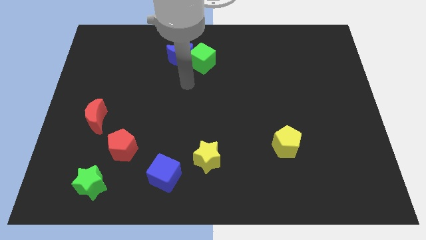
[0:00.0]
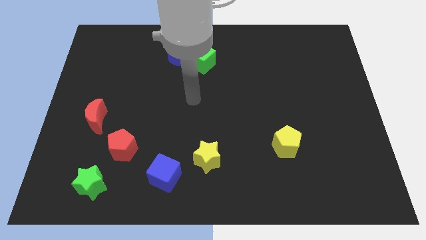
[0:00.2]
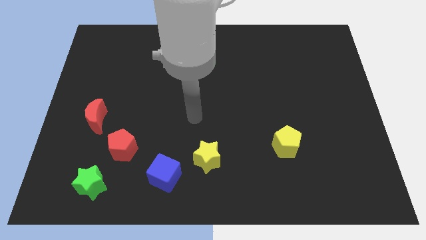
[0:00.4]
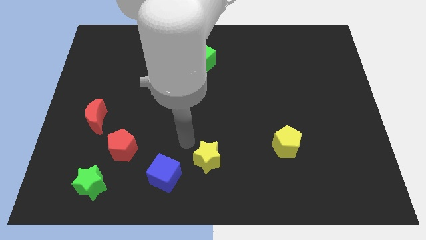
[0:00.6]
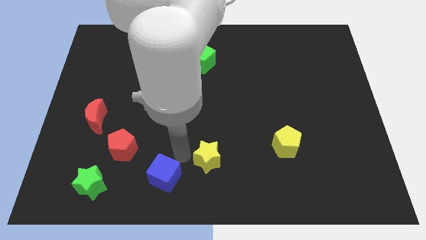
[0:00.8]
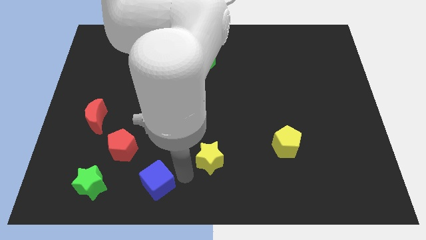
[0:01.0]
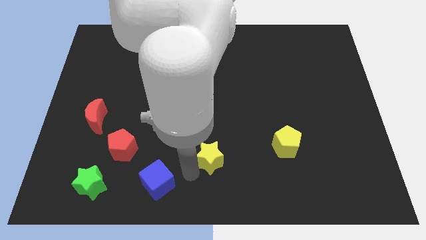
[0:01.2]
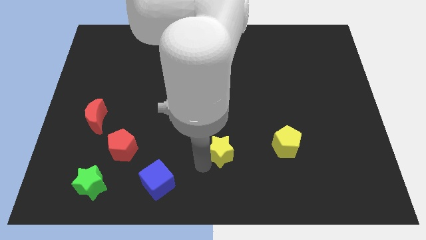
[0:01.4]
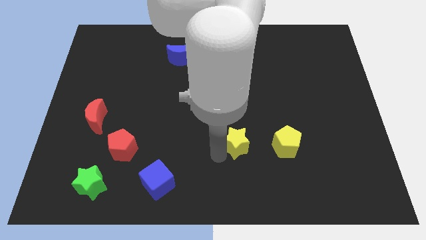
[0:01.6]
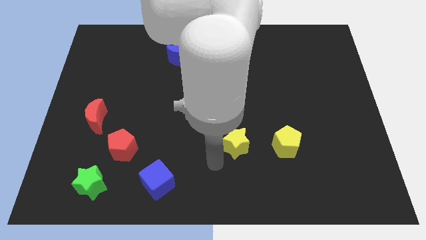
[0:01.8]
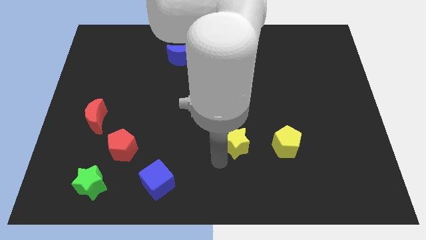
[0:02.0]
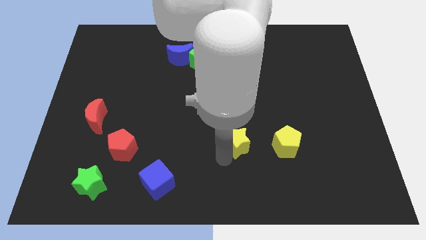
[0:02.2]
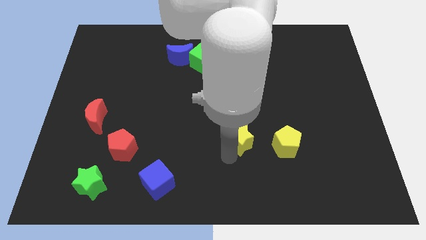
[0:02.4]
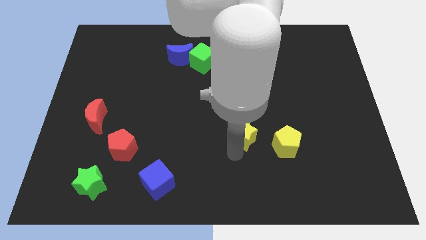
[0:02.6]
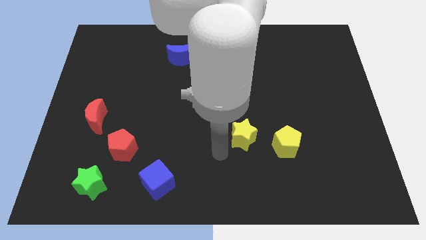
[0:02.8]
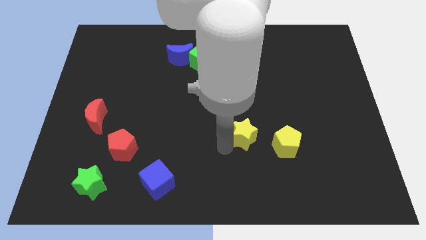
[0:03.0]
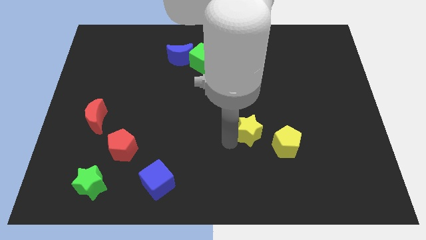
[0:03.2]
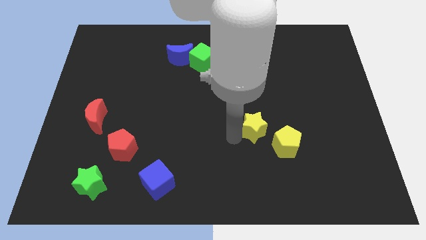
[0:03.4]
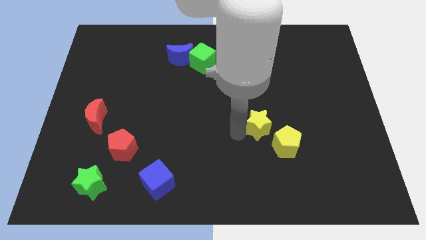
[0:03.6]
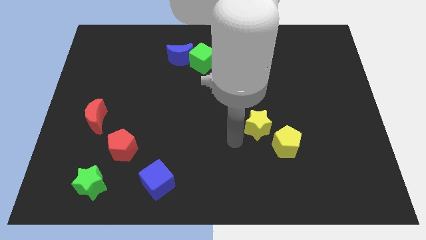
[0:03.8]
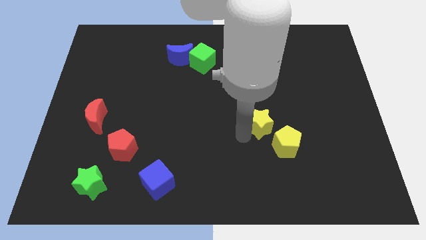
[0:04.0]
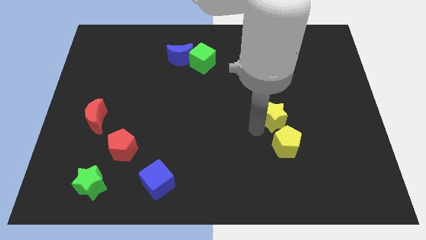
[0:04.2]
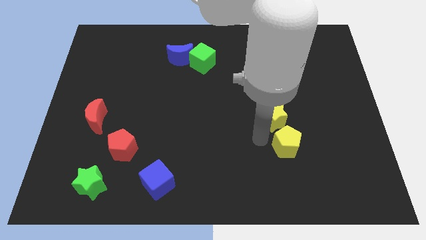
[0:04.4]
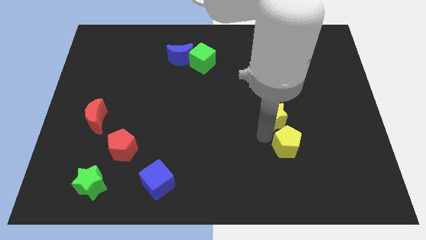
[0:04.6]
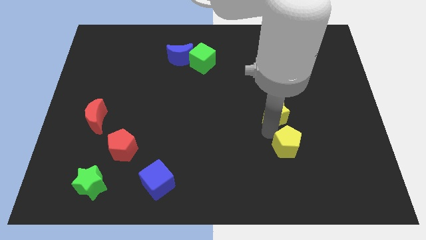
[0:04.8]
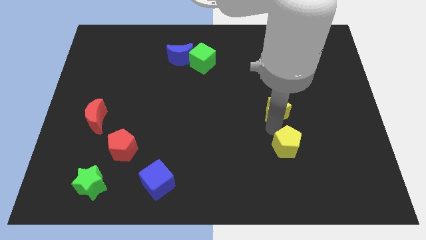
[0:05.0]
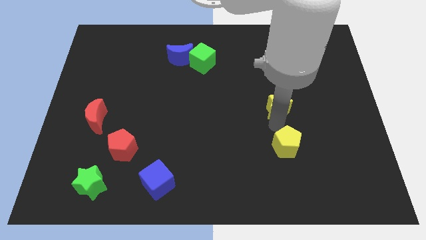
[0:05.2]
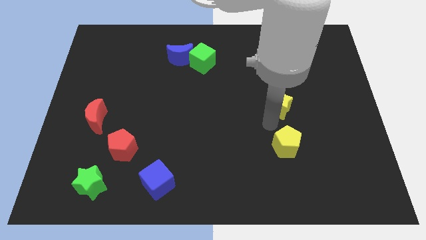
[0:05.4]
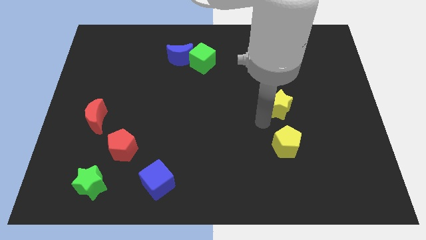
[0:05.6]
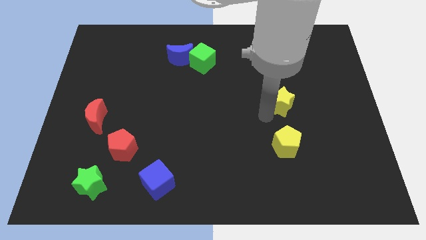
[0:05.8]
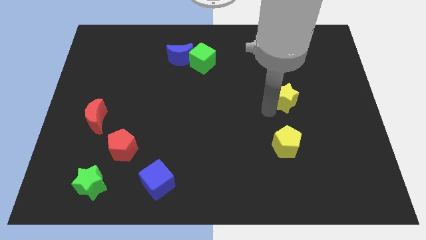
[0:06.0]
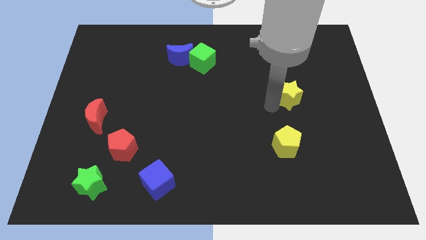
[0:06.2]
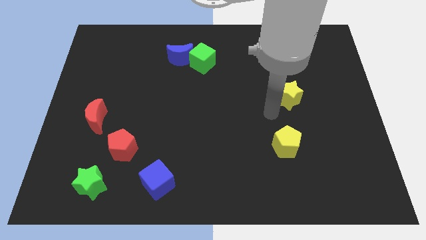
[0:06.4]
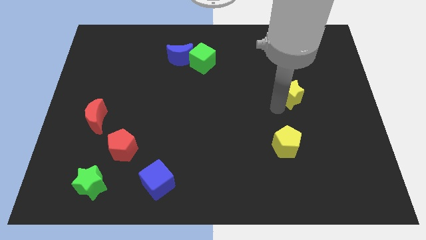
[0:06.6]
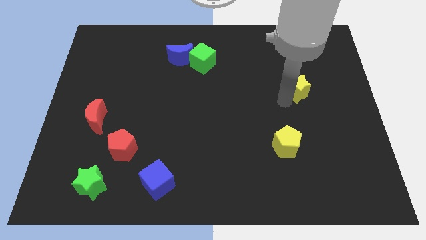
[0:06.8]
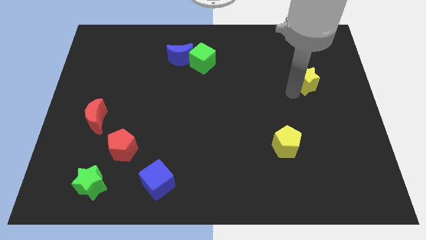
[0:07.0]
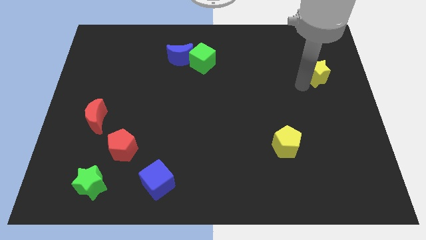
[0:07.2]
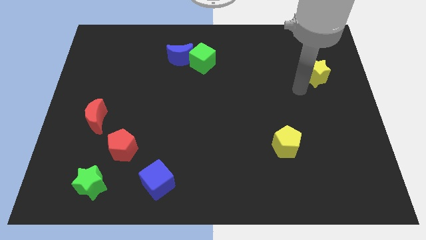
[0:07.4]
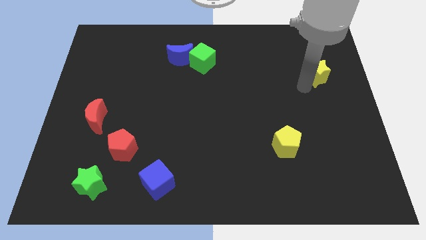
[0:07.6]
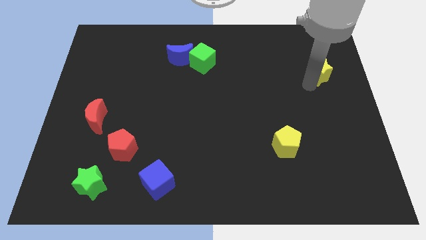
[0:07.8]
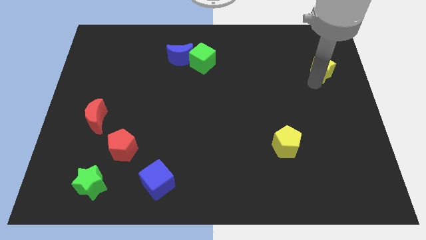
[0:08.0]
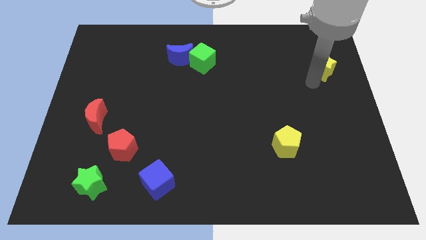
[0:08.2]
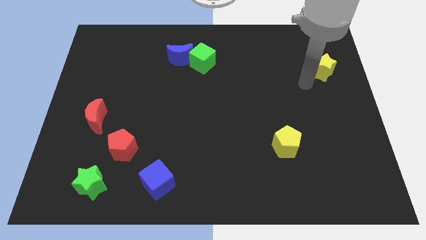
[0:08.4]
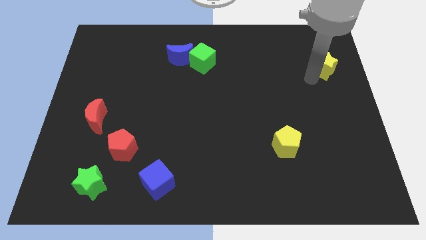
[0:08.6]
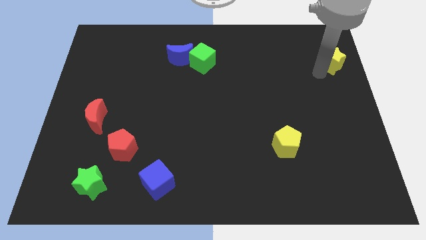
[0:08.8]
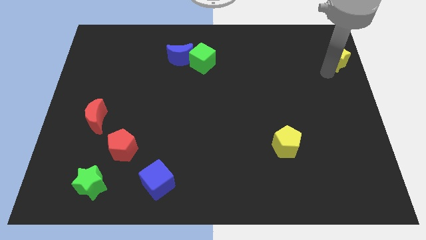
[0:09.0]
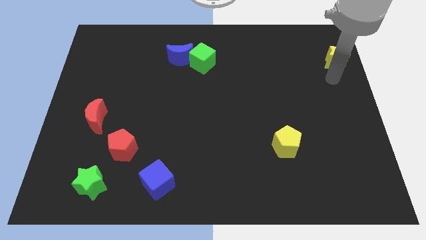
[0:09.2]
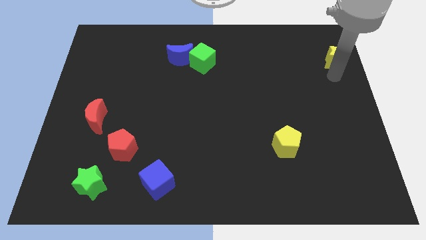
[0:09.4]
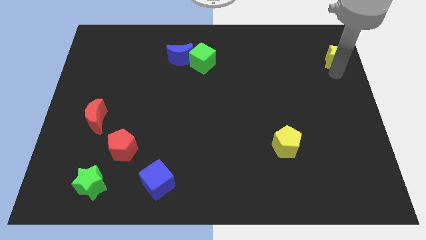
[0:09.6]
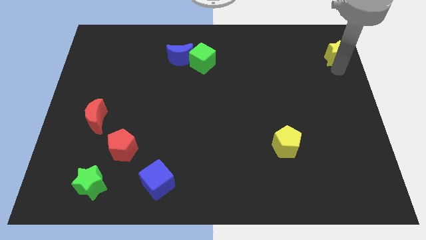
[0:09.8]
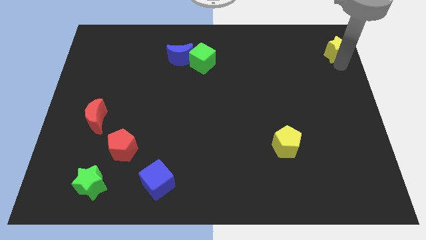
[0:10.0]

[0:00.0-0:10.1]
push the yellow star to the top right

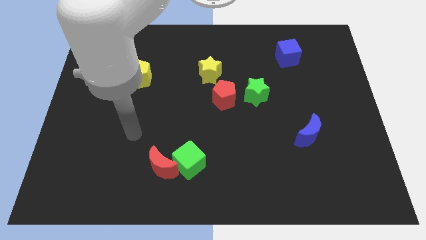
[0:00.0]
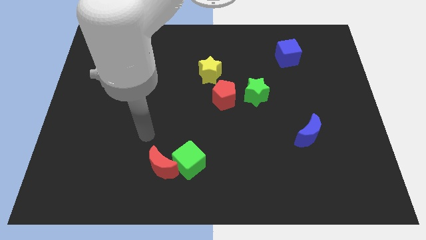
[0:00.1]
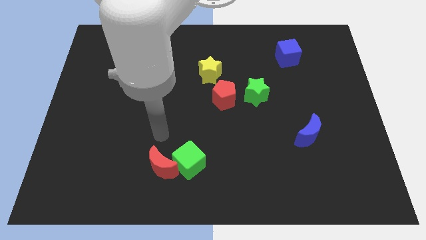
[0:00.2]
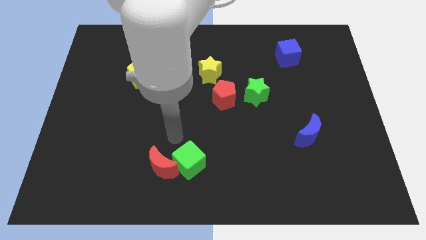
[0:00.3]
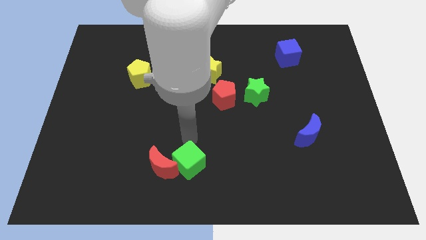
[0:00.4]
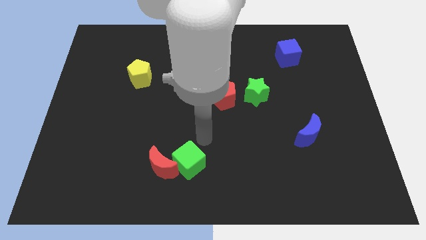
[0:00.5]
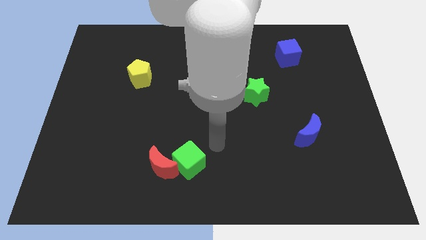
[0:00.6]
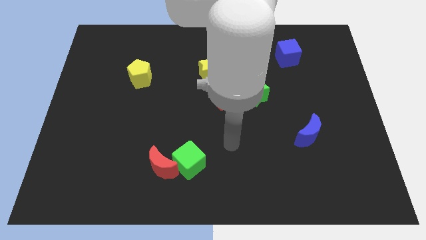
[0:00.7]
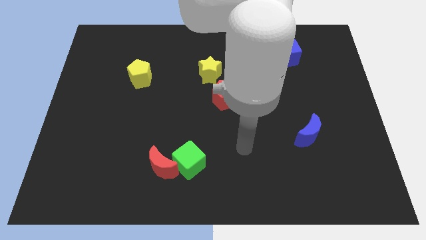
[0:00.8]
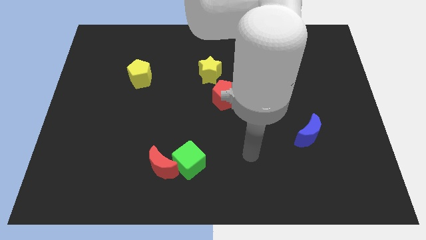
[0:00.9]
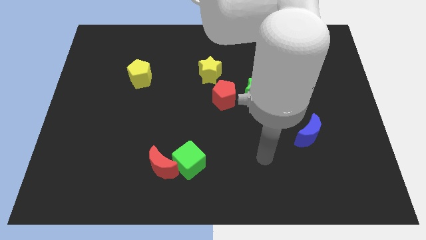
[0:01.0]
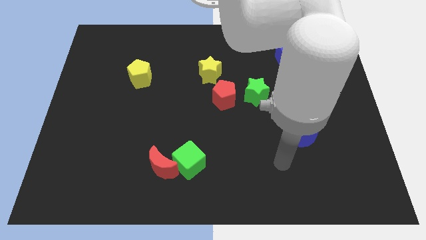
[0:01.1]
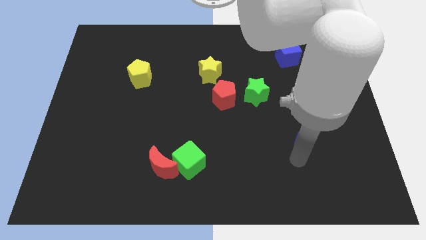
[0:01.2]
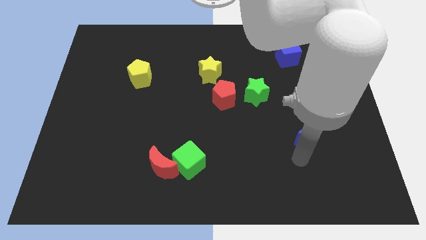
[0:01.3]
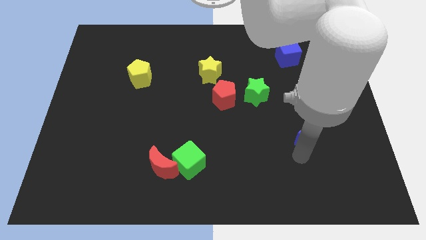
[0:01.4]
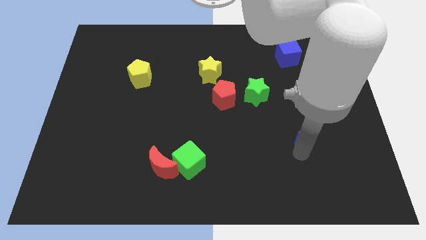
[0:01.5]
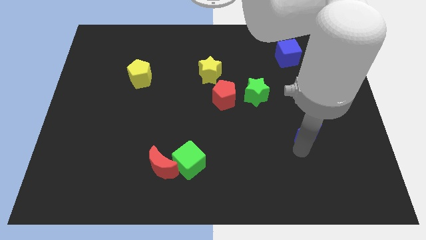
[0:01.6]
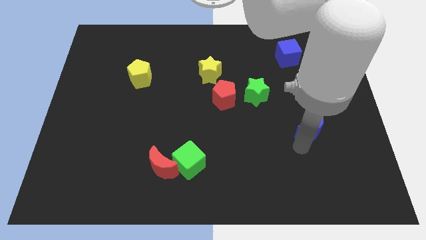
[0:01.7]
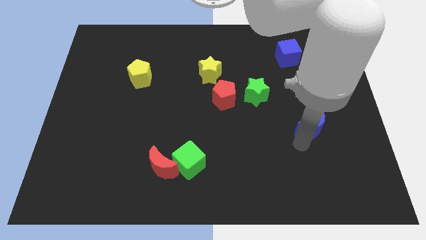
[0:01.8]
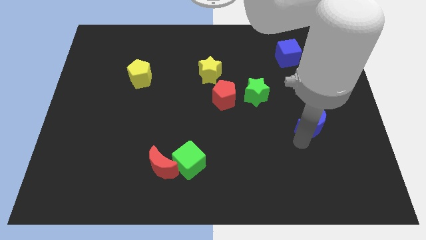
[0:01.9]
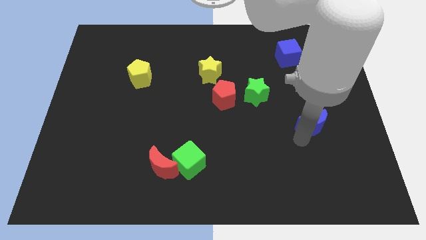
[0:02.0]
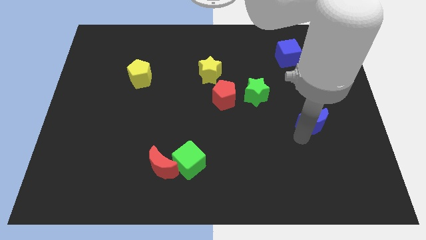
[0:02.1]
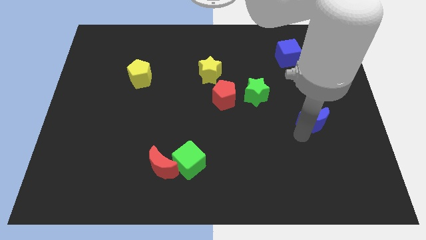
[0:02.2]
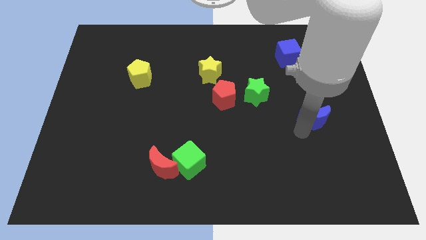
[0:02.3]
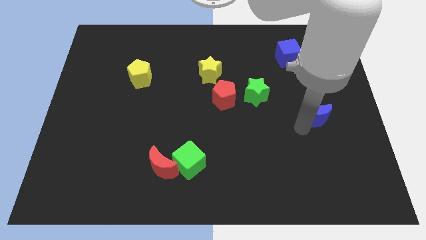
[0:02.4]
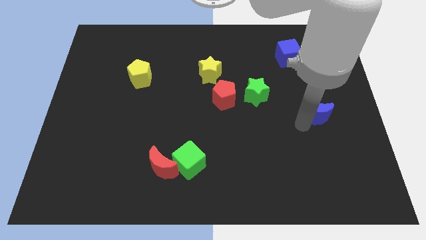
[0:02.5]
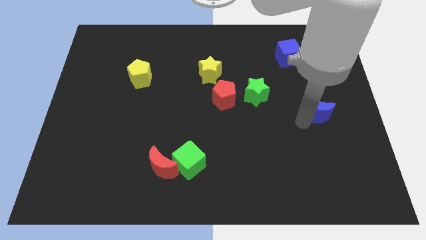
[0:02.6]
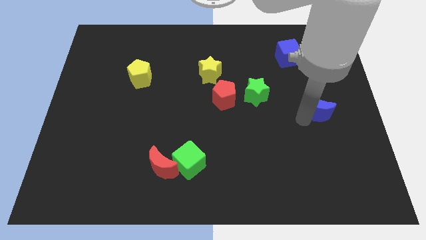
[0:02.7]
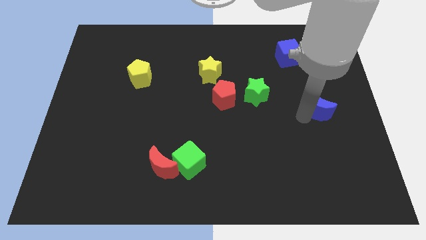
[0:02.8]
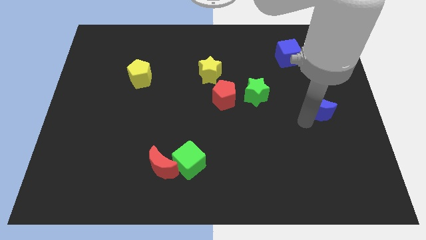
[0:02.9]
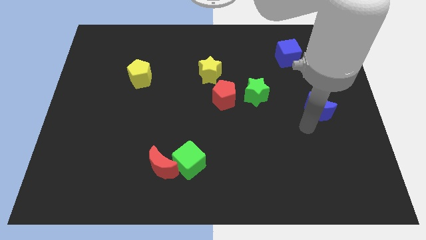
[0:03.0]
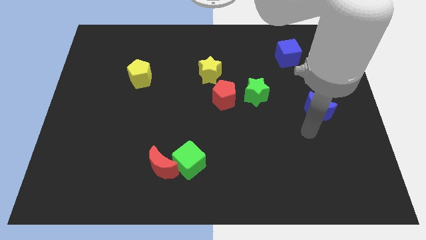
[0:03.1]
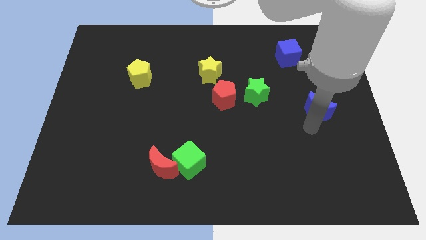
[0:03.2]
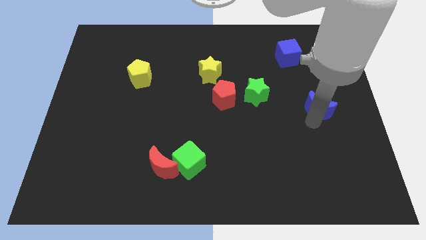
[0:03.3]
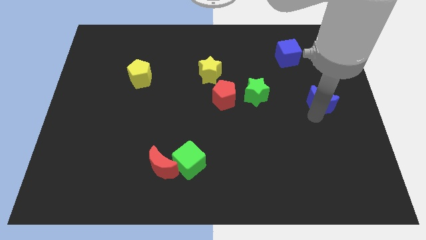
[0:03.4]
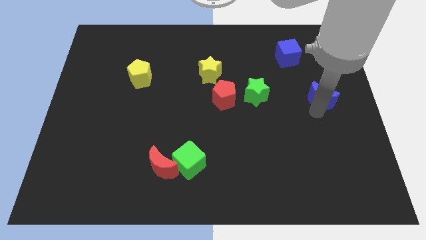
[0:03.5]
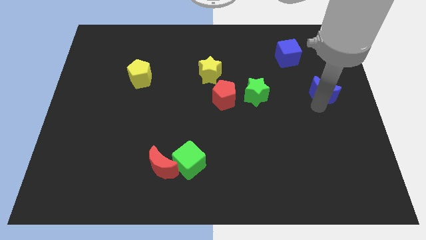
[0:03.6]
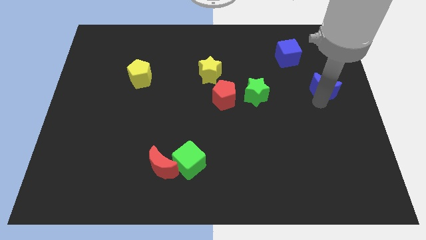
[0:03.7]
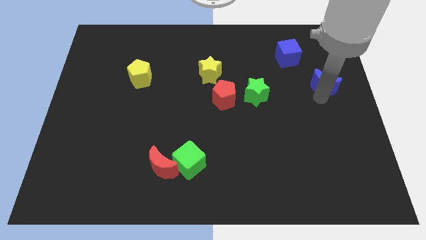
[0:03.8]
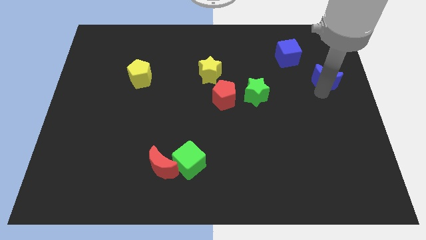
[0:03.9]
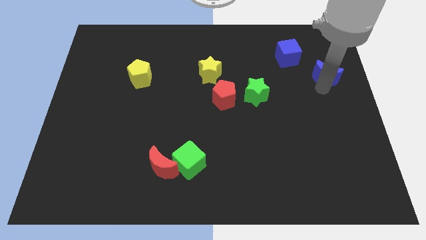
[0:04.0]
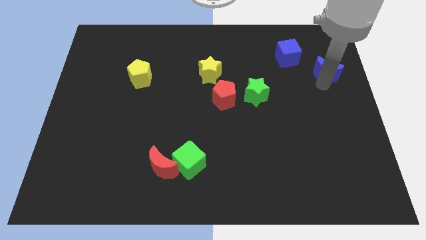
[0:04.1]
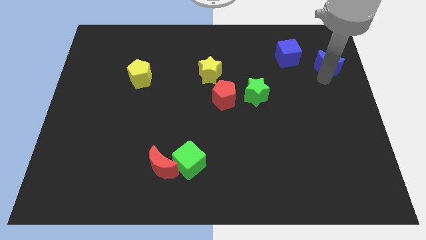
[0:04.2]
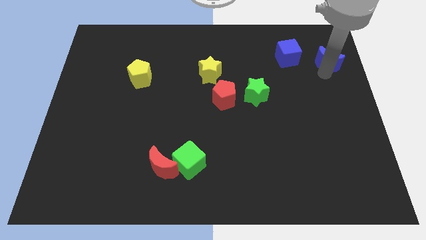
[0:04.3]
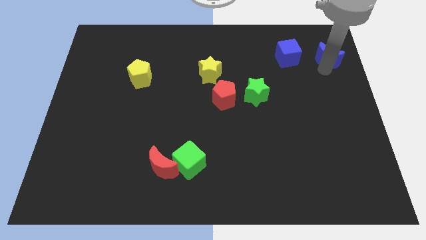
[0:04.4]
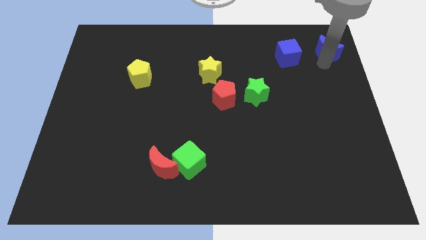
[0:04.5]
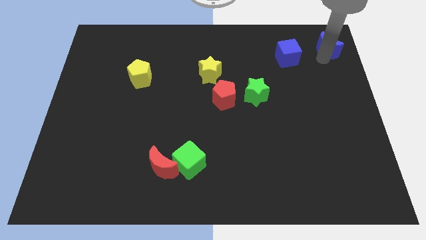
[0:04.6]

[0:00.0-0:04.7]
slide the blue moon to the top right corner
